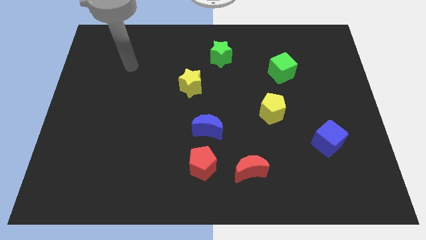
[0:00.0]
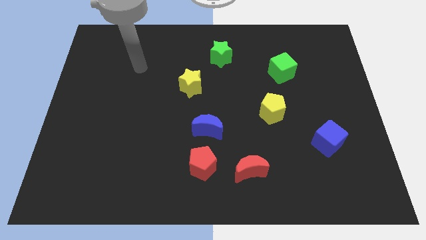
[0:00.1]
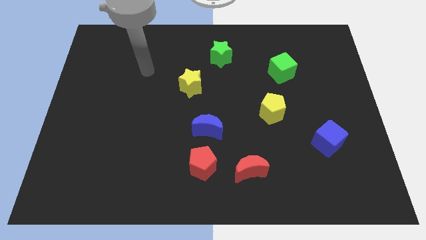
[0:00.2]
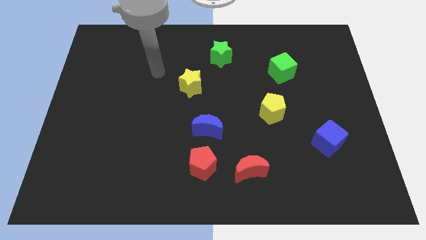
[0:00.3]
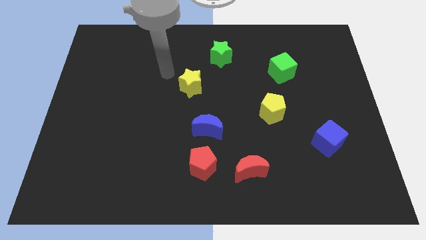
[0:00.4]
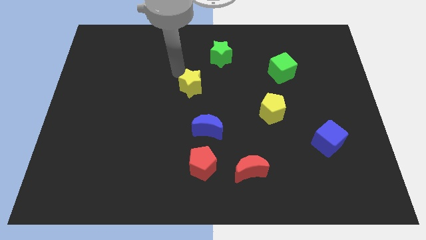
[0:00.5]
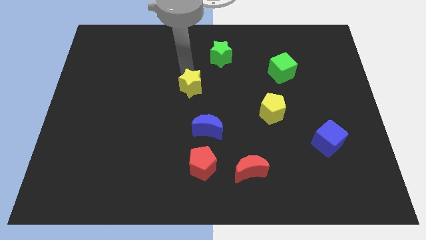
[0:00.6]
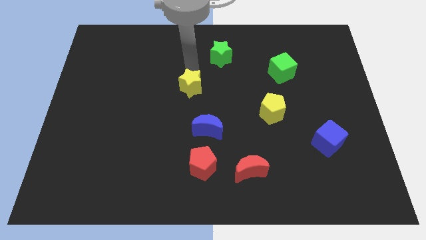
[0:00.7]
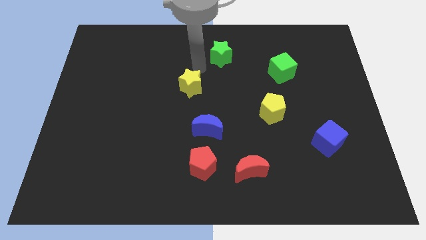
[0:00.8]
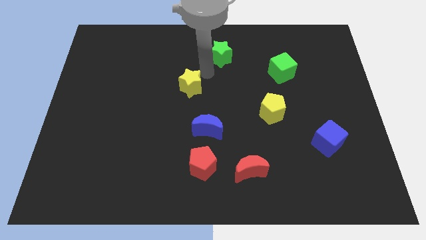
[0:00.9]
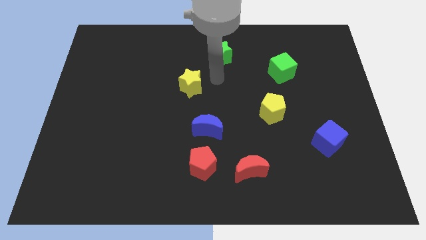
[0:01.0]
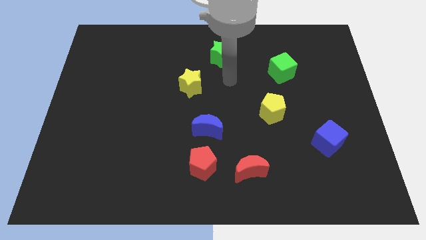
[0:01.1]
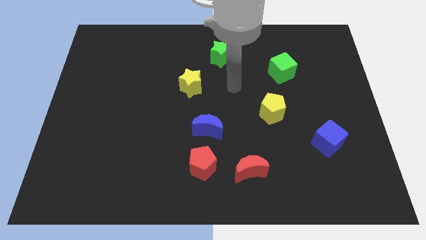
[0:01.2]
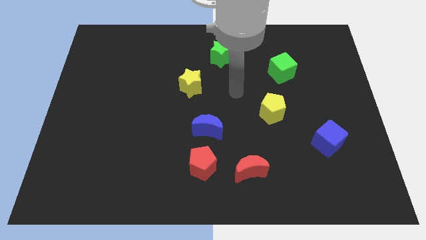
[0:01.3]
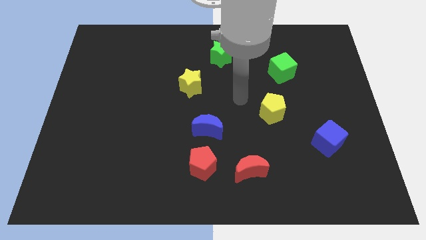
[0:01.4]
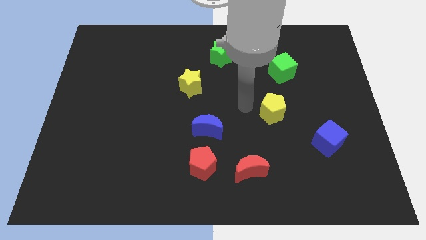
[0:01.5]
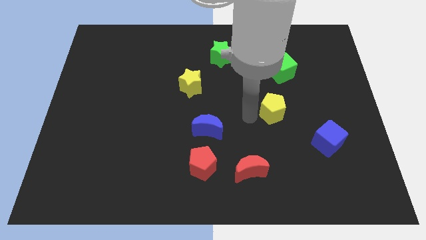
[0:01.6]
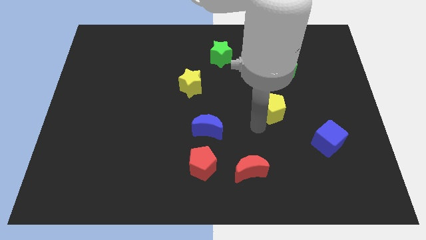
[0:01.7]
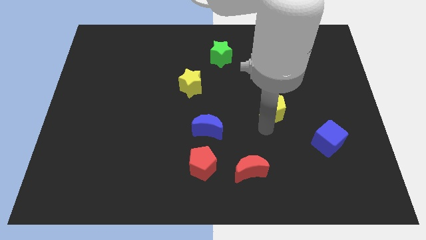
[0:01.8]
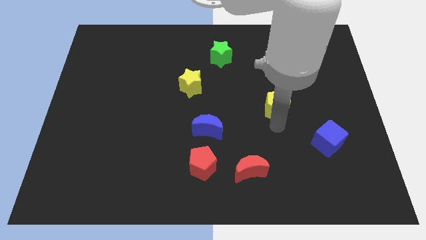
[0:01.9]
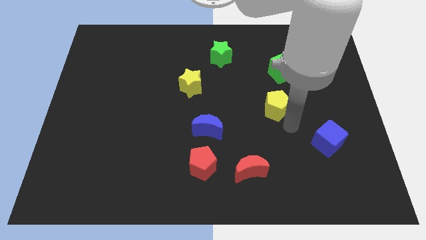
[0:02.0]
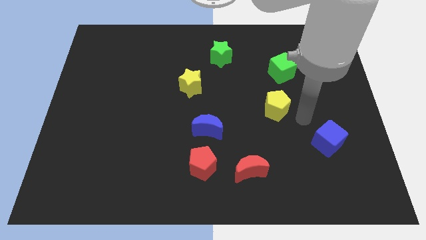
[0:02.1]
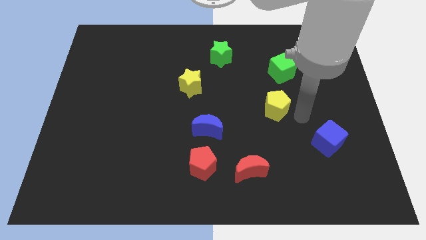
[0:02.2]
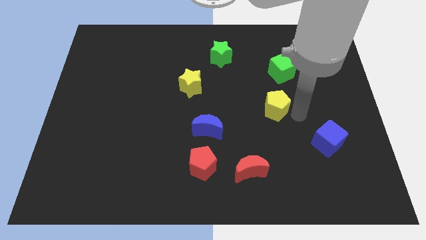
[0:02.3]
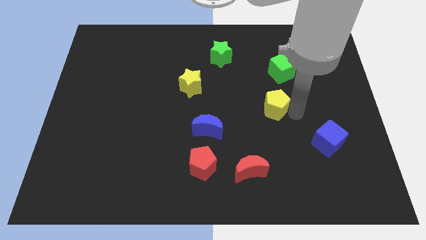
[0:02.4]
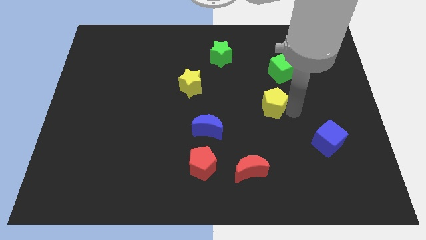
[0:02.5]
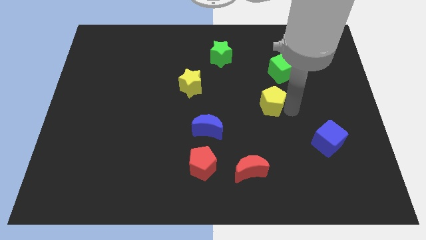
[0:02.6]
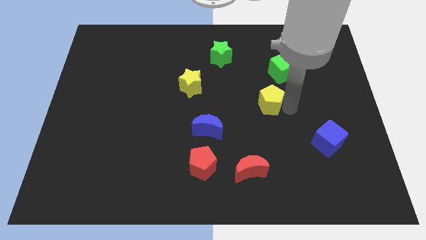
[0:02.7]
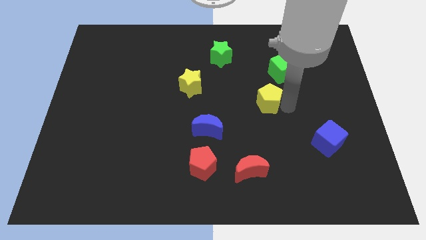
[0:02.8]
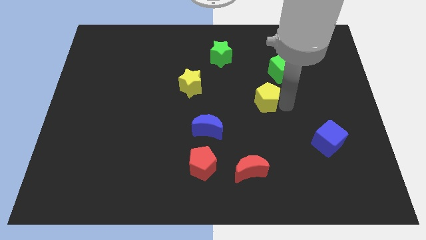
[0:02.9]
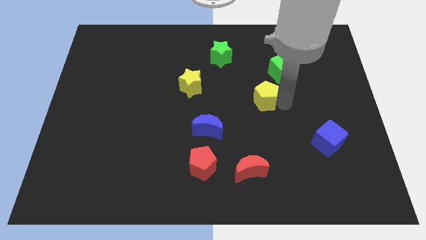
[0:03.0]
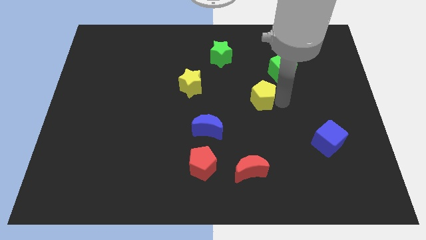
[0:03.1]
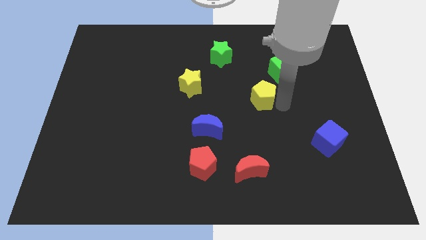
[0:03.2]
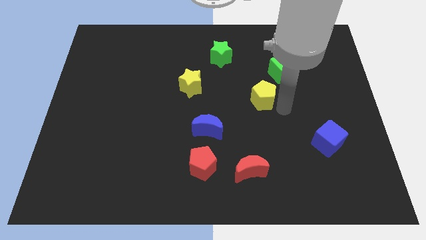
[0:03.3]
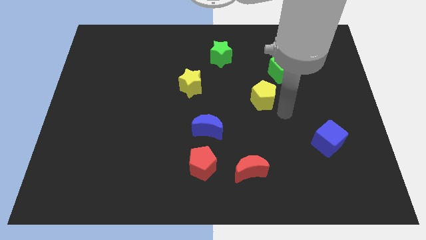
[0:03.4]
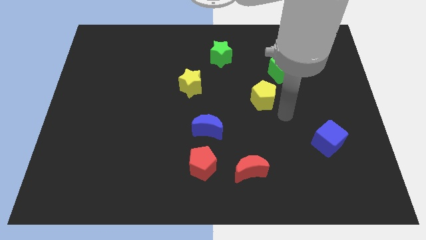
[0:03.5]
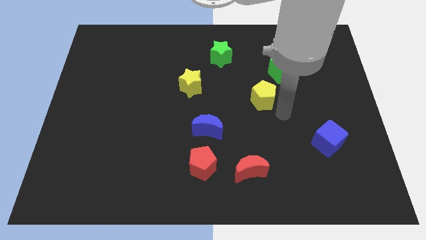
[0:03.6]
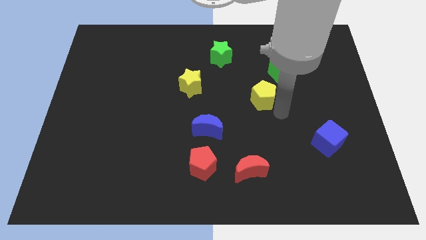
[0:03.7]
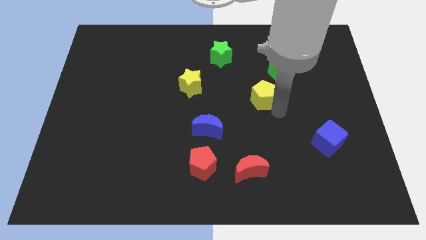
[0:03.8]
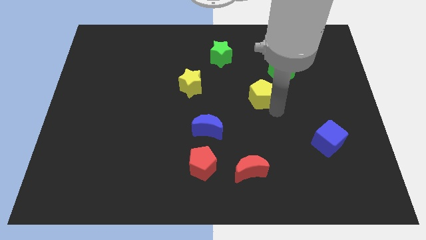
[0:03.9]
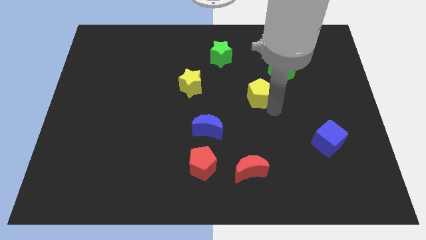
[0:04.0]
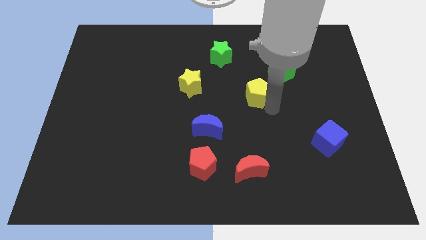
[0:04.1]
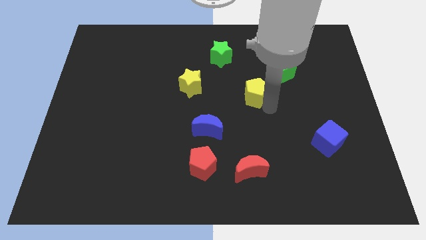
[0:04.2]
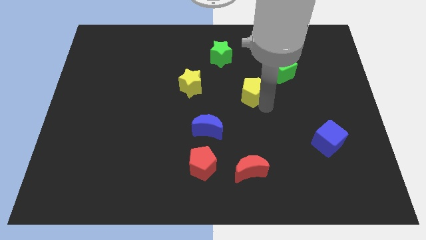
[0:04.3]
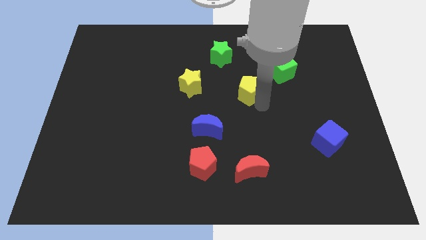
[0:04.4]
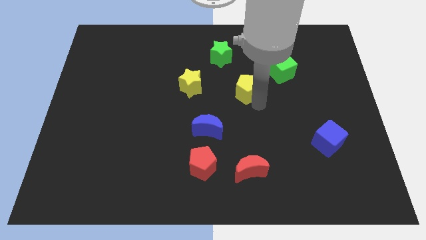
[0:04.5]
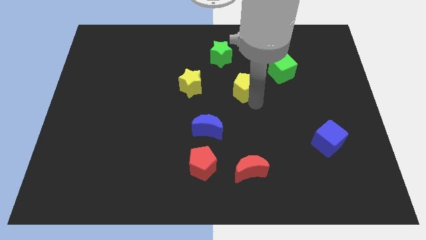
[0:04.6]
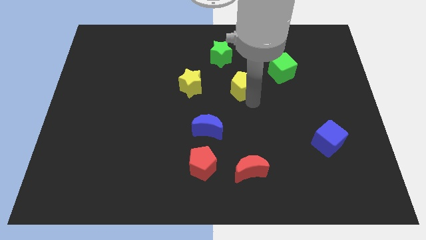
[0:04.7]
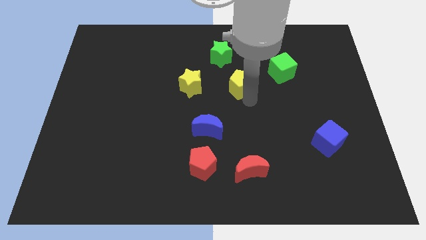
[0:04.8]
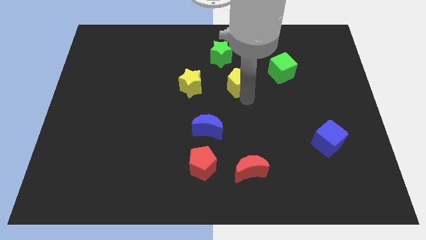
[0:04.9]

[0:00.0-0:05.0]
put the yellow pentagon diagonally down and to the right of the green star

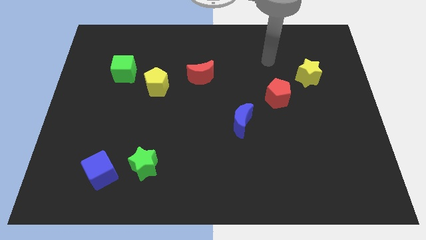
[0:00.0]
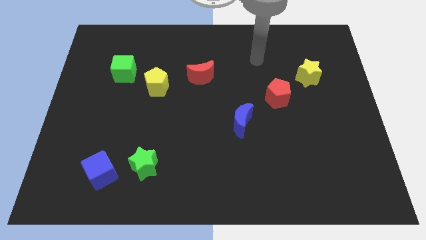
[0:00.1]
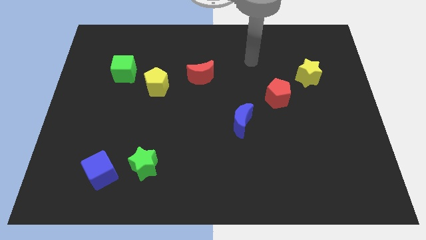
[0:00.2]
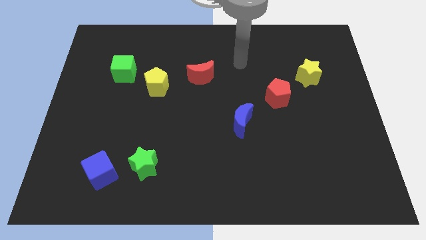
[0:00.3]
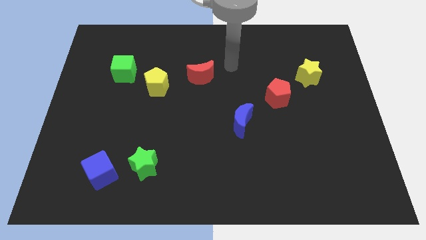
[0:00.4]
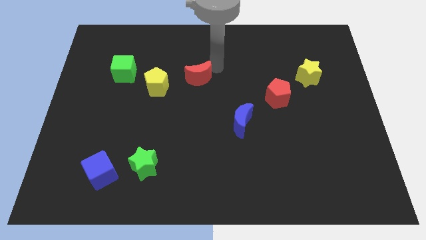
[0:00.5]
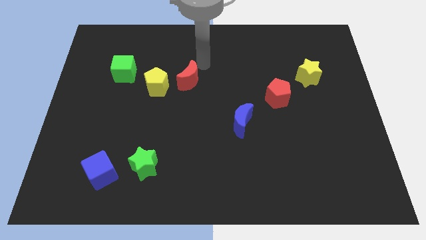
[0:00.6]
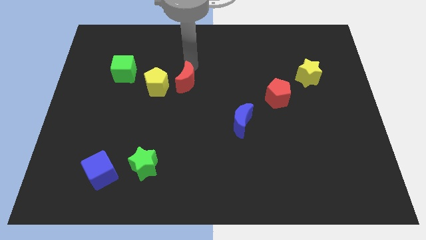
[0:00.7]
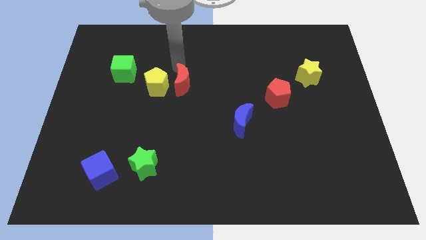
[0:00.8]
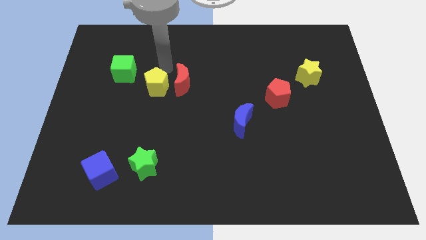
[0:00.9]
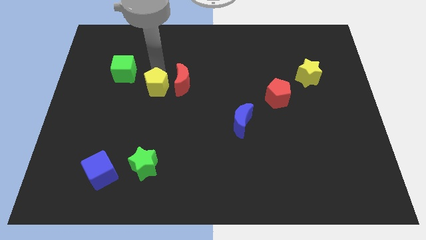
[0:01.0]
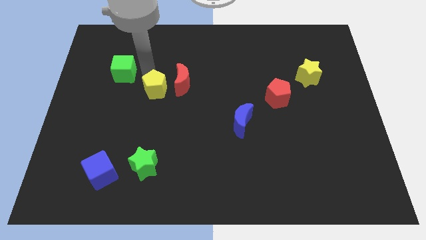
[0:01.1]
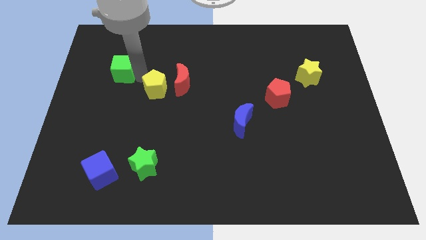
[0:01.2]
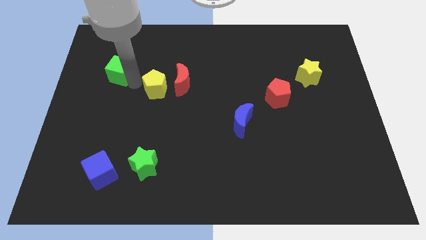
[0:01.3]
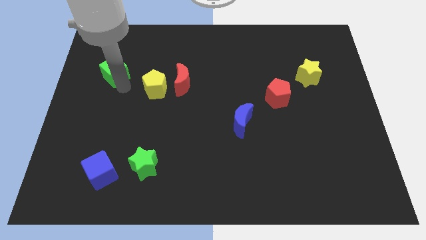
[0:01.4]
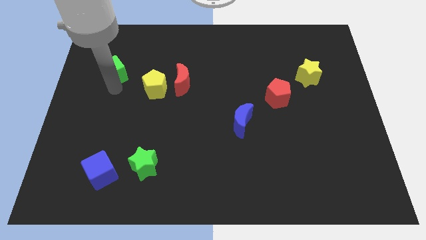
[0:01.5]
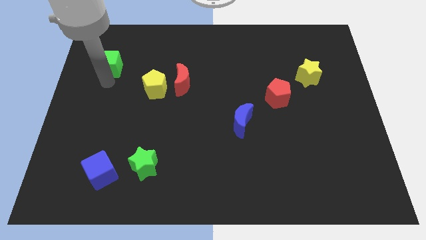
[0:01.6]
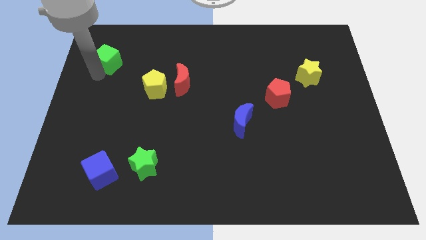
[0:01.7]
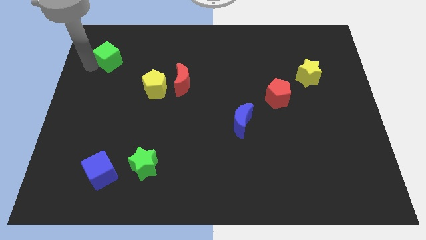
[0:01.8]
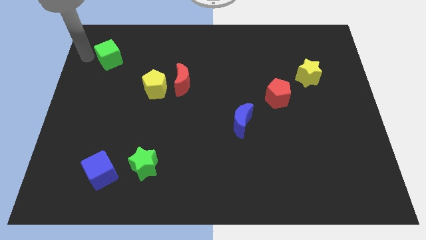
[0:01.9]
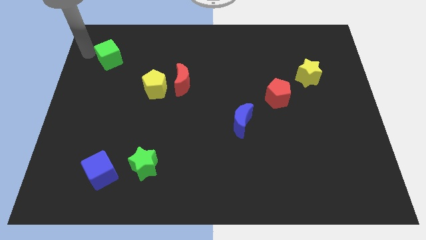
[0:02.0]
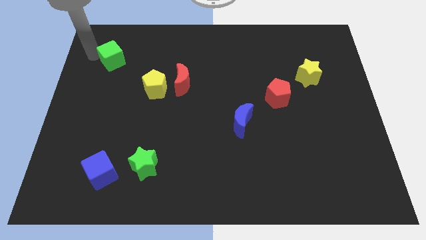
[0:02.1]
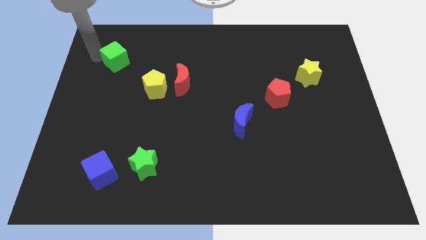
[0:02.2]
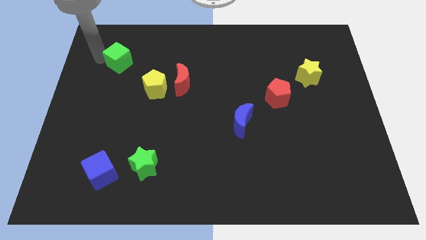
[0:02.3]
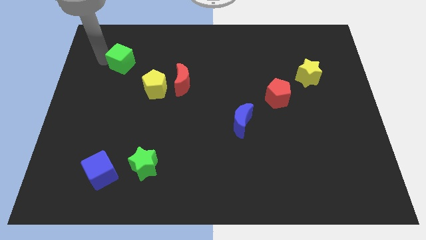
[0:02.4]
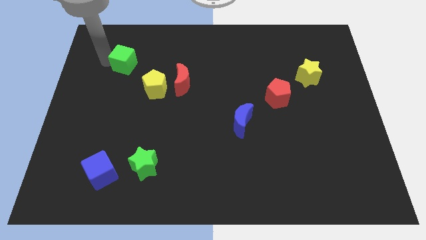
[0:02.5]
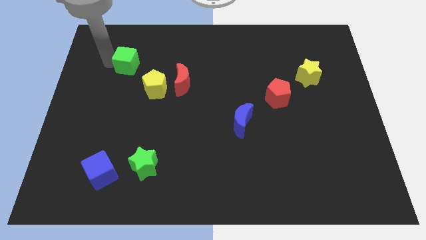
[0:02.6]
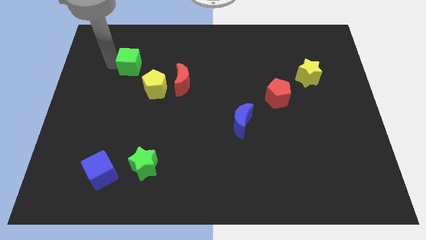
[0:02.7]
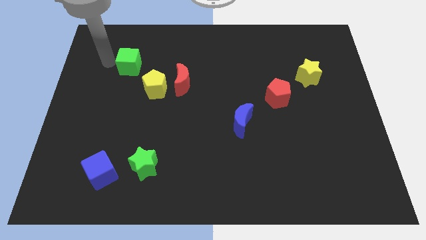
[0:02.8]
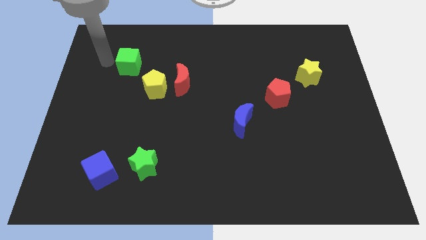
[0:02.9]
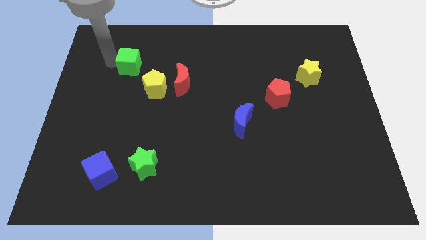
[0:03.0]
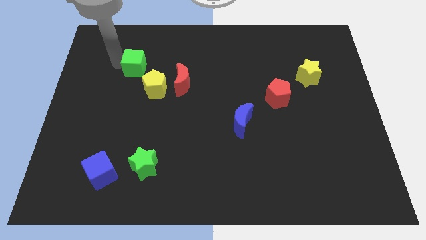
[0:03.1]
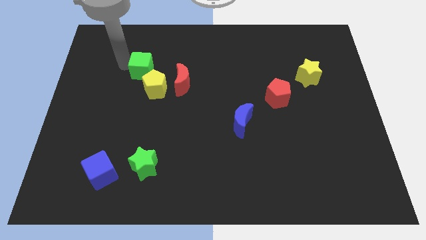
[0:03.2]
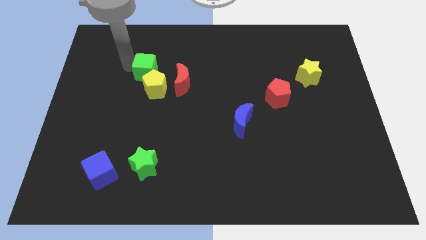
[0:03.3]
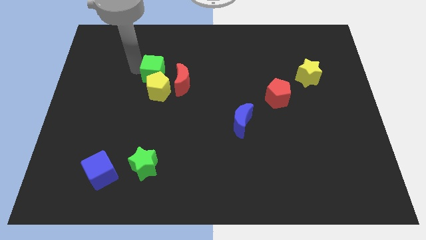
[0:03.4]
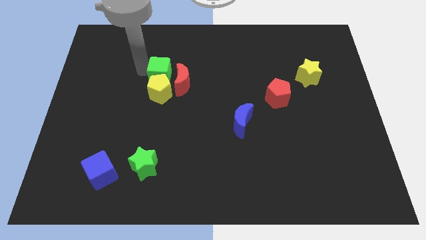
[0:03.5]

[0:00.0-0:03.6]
slide the green cube diagonally up and to the right of the yellow pentagon
